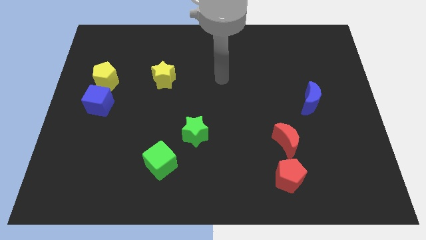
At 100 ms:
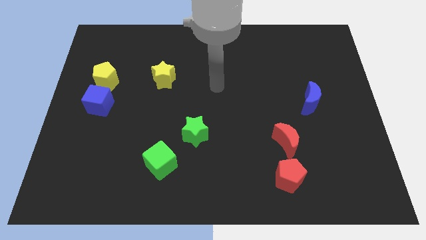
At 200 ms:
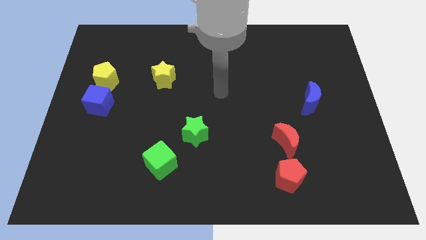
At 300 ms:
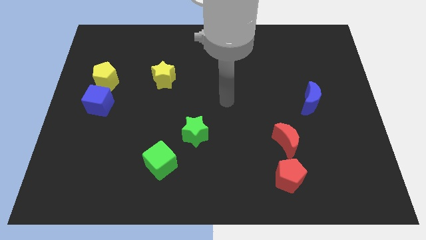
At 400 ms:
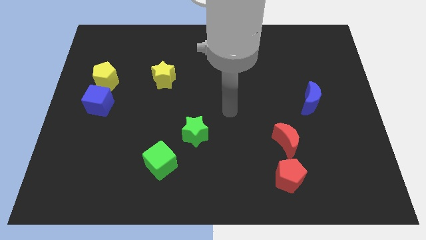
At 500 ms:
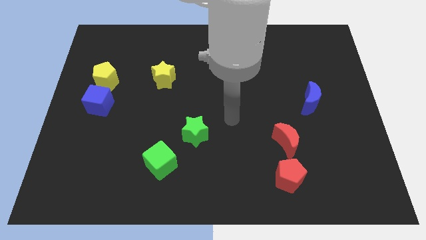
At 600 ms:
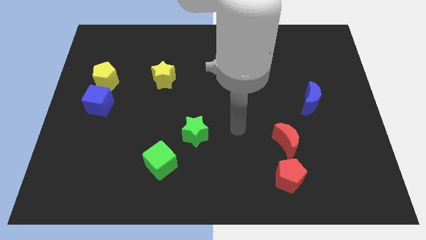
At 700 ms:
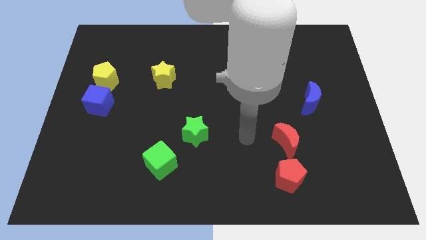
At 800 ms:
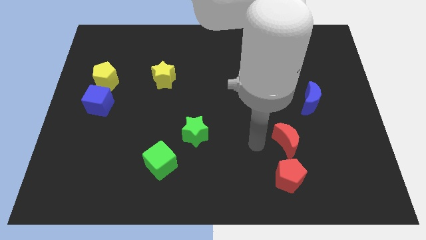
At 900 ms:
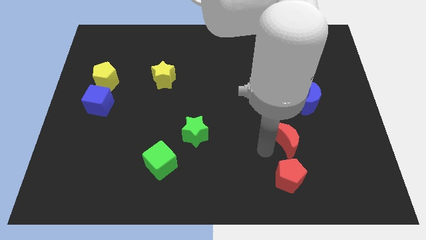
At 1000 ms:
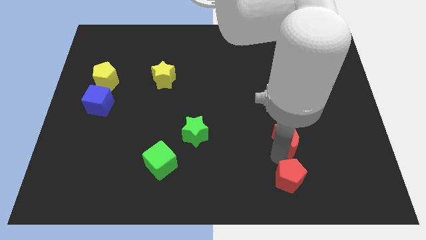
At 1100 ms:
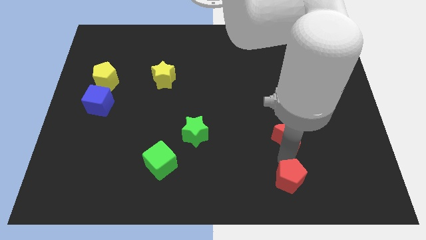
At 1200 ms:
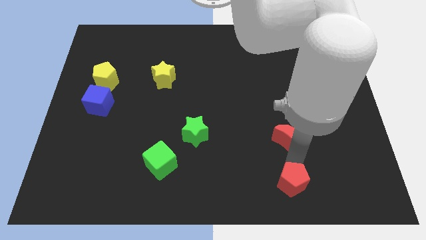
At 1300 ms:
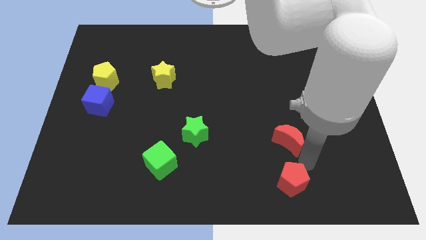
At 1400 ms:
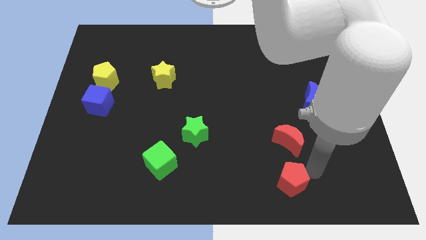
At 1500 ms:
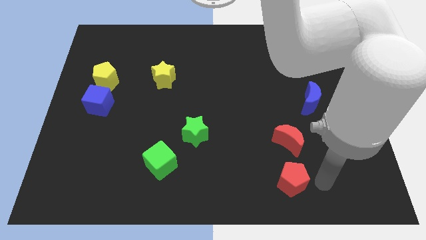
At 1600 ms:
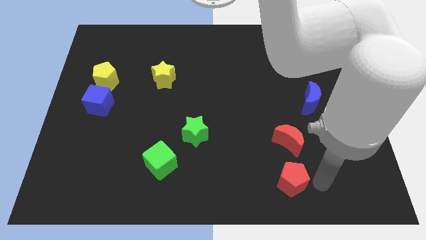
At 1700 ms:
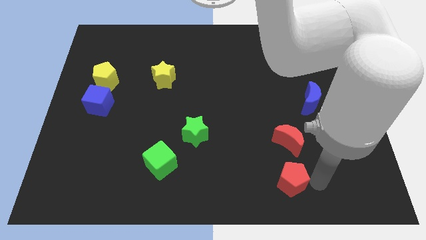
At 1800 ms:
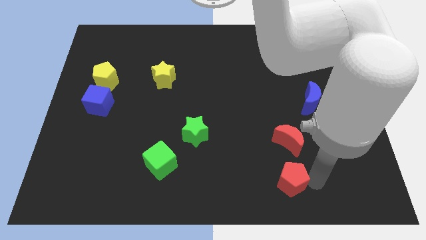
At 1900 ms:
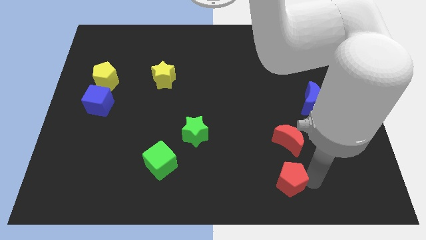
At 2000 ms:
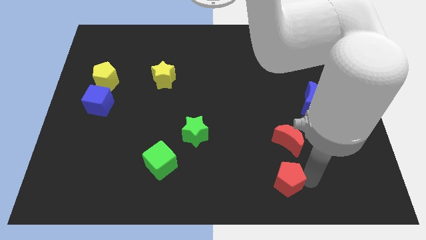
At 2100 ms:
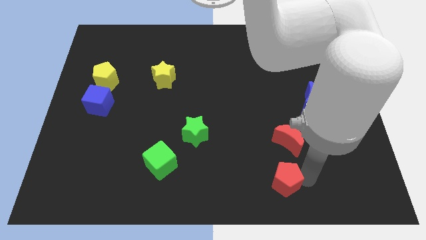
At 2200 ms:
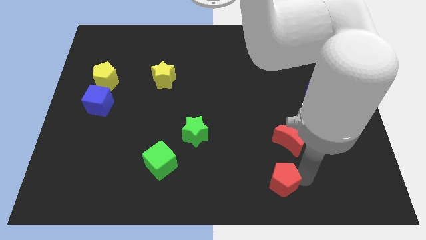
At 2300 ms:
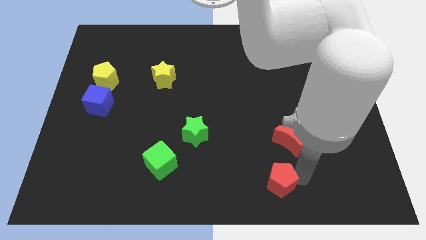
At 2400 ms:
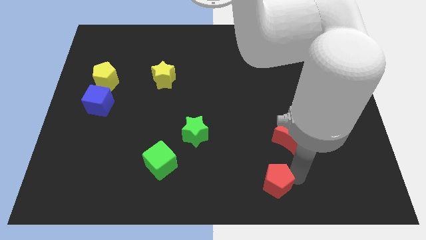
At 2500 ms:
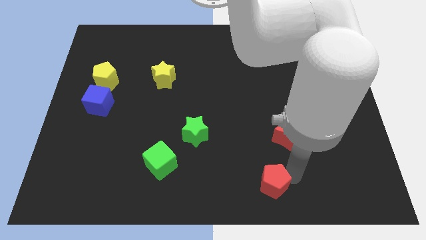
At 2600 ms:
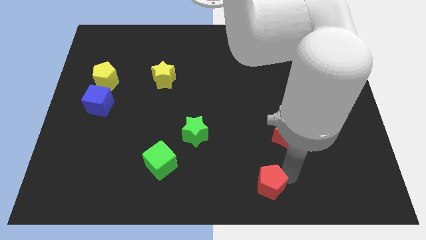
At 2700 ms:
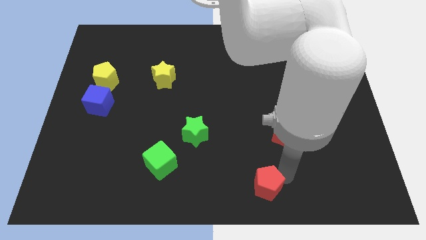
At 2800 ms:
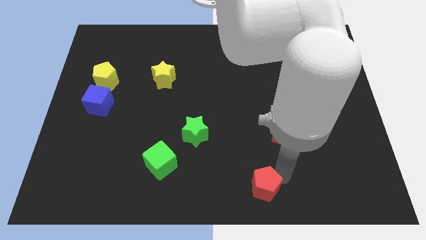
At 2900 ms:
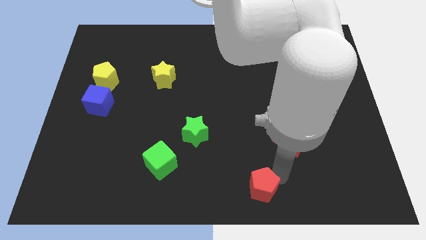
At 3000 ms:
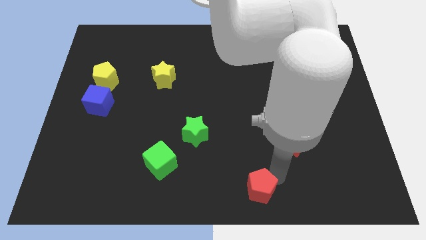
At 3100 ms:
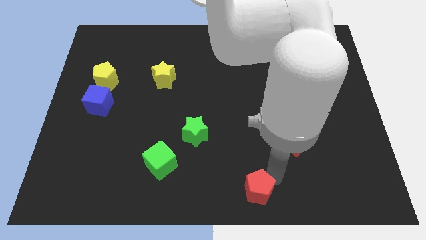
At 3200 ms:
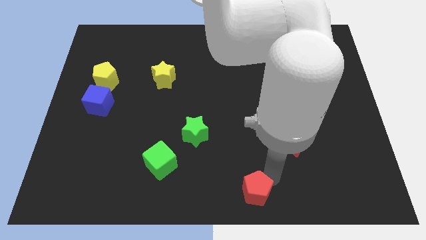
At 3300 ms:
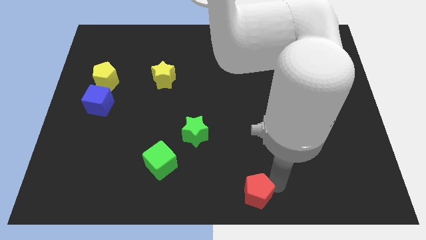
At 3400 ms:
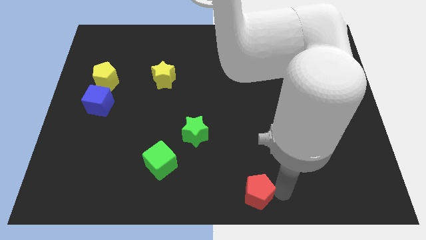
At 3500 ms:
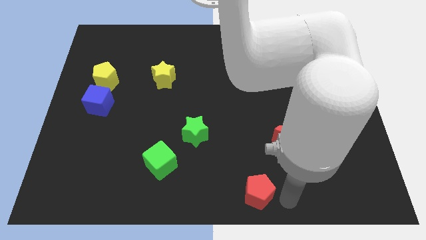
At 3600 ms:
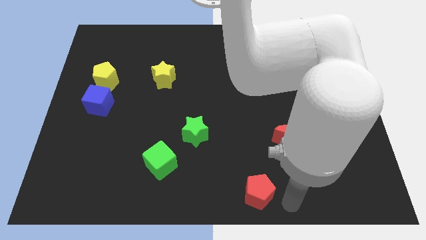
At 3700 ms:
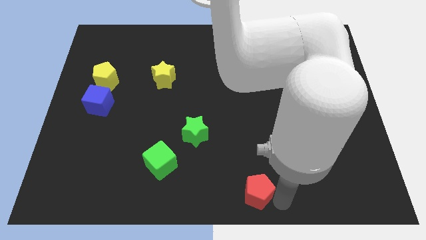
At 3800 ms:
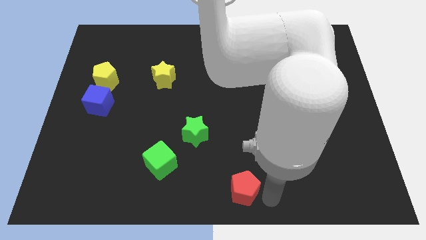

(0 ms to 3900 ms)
slightly push the red pentagon left

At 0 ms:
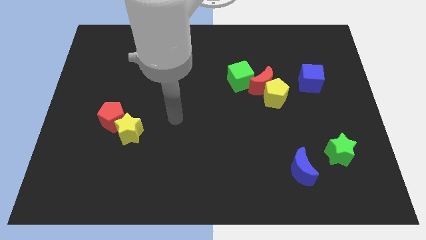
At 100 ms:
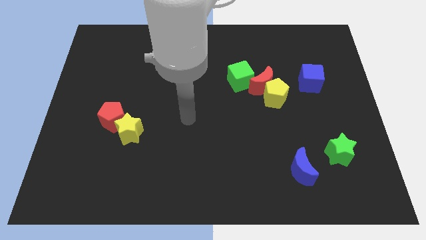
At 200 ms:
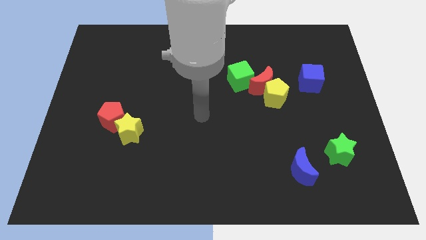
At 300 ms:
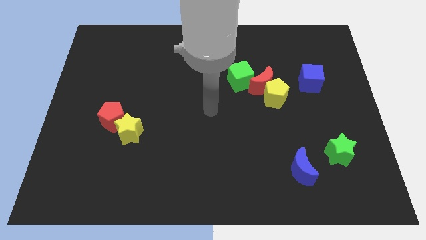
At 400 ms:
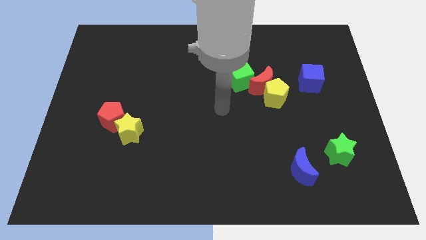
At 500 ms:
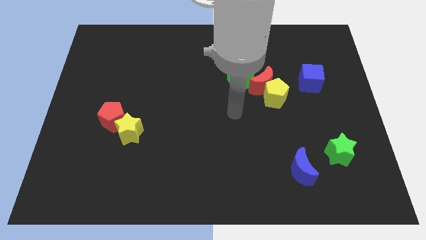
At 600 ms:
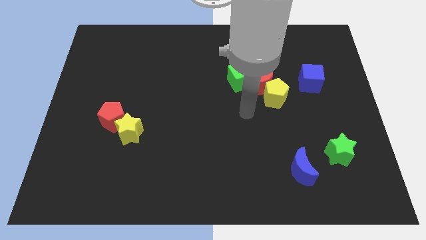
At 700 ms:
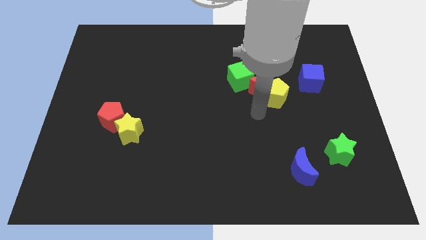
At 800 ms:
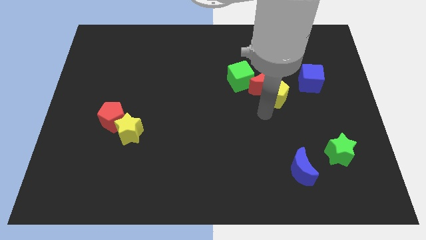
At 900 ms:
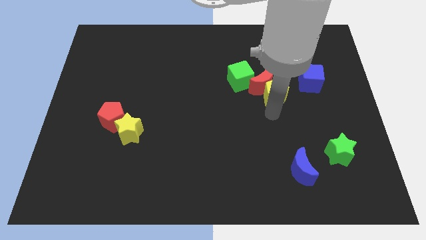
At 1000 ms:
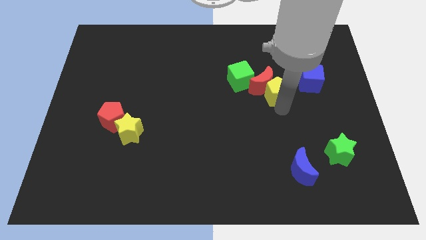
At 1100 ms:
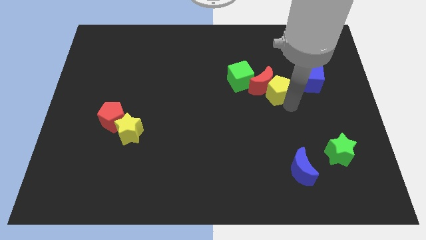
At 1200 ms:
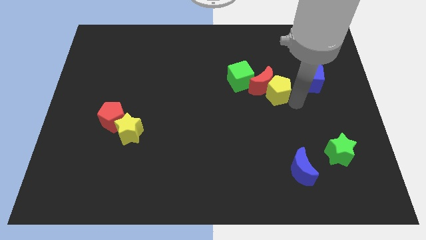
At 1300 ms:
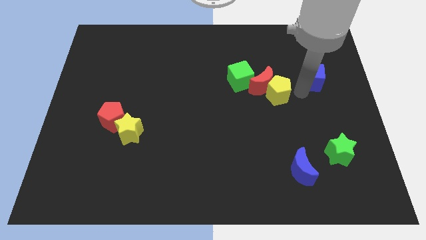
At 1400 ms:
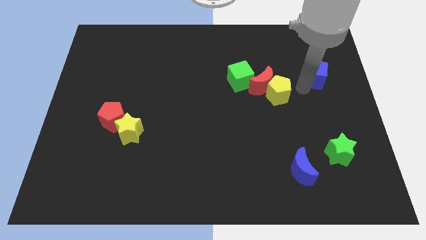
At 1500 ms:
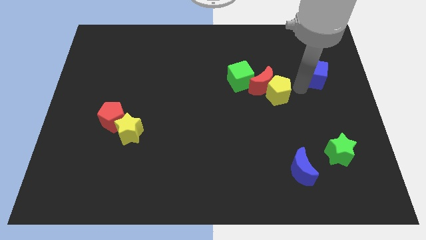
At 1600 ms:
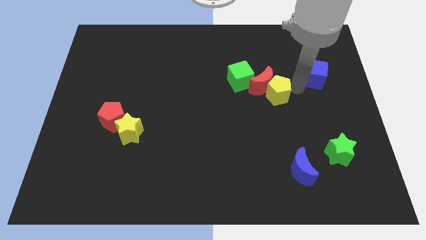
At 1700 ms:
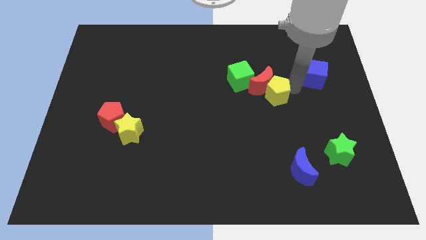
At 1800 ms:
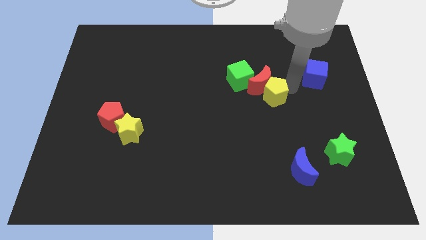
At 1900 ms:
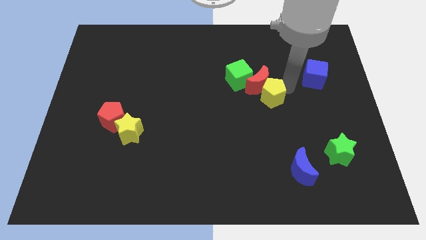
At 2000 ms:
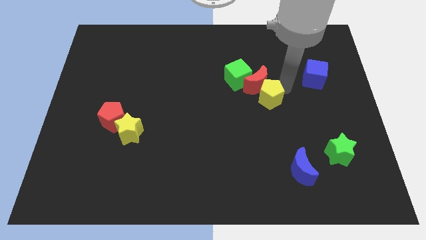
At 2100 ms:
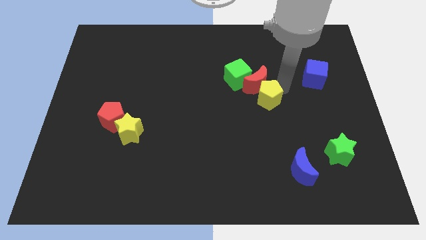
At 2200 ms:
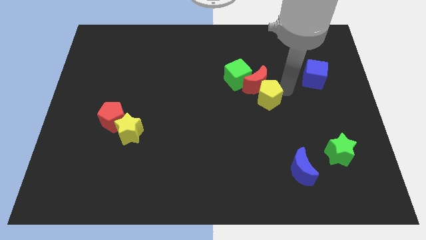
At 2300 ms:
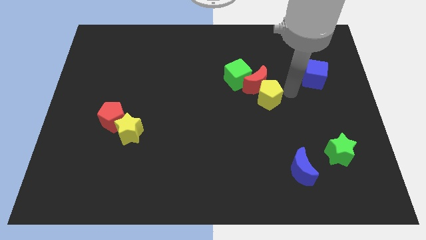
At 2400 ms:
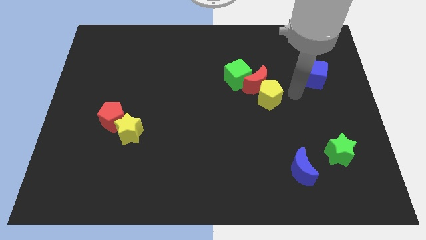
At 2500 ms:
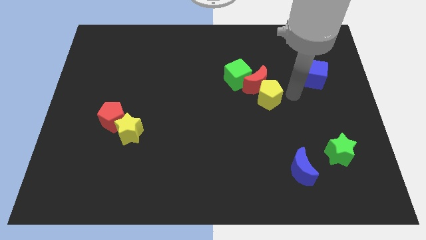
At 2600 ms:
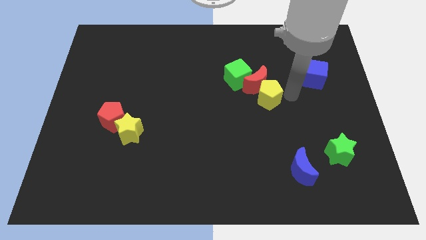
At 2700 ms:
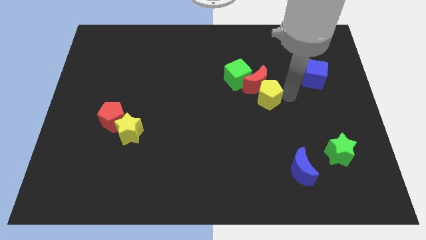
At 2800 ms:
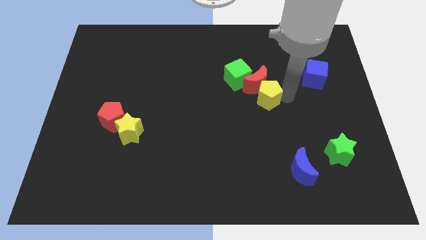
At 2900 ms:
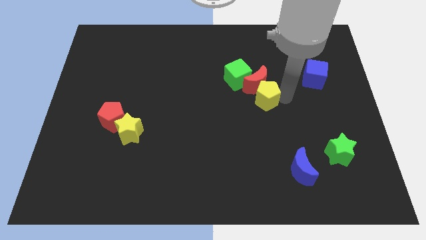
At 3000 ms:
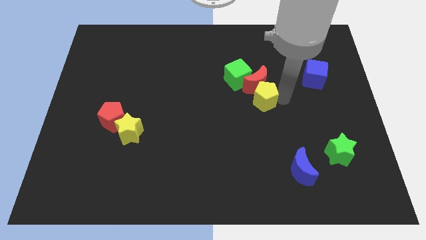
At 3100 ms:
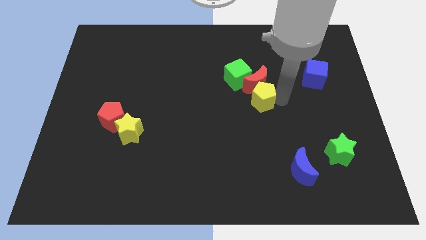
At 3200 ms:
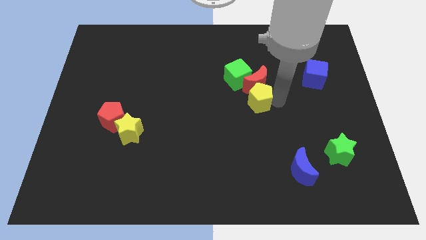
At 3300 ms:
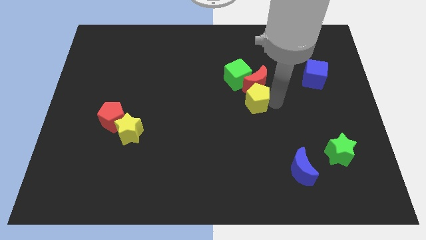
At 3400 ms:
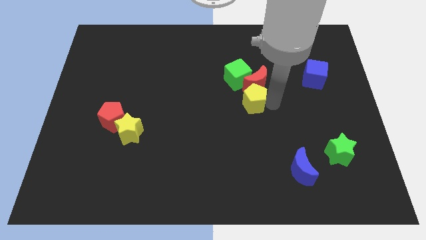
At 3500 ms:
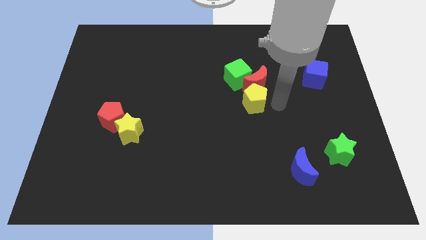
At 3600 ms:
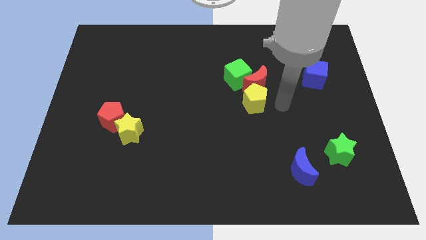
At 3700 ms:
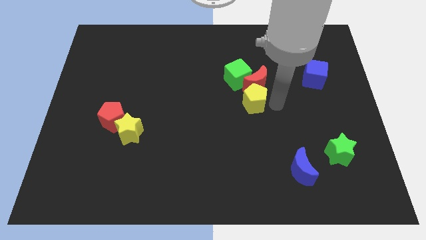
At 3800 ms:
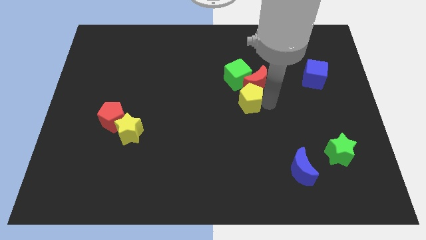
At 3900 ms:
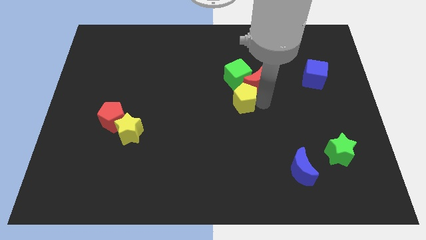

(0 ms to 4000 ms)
slightly move the yellow pentagon left

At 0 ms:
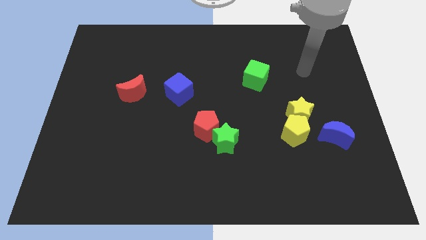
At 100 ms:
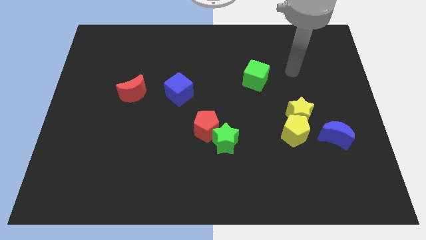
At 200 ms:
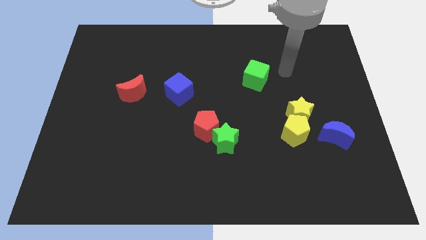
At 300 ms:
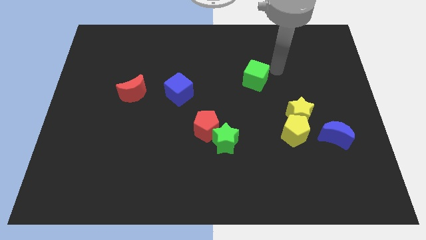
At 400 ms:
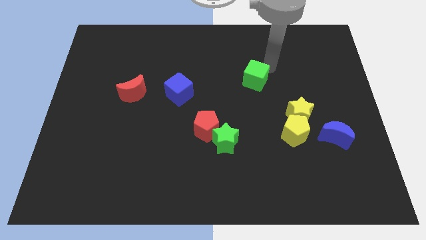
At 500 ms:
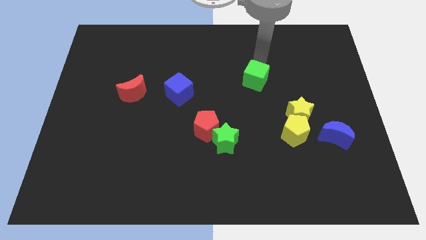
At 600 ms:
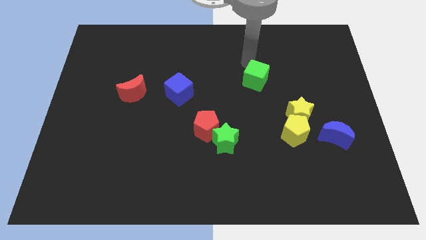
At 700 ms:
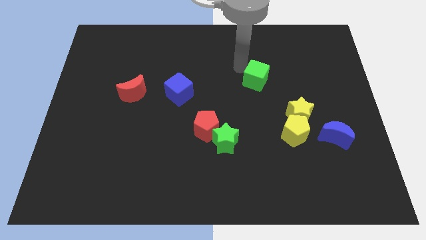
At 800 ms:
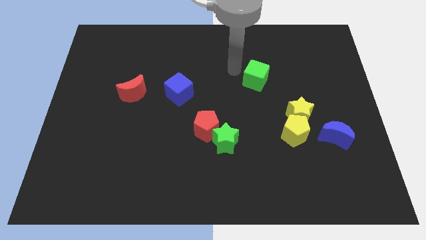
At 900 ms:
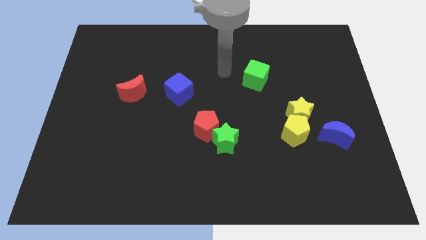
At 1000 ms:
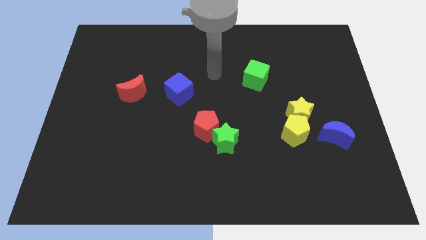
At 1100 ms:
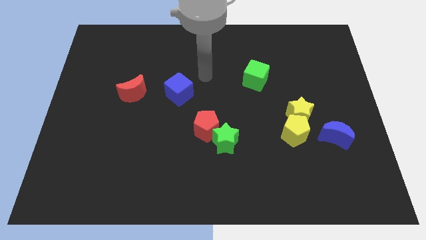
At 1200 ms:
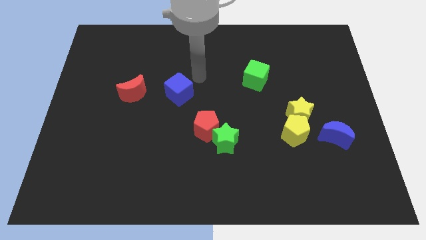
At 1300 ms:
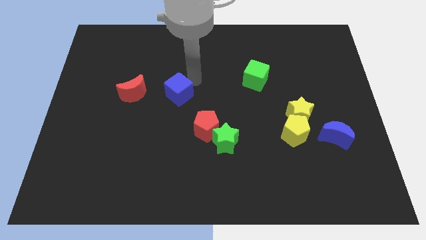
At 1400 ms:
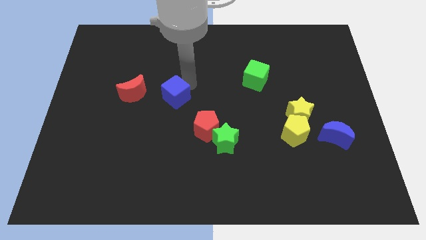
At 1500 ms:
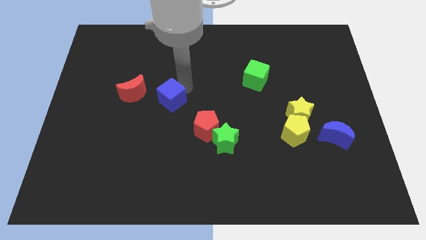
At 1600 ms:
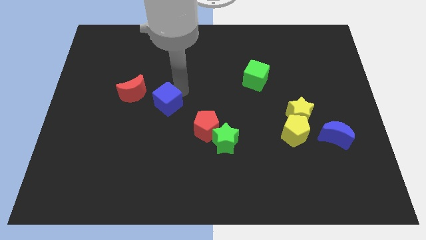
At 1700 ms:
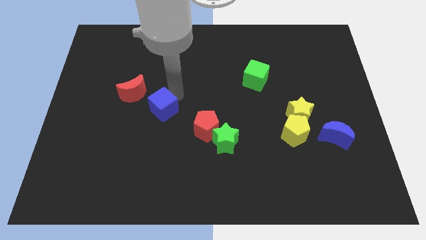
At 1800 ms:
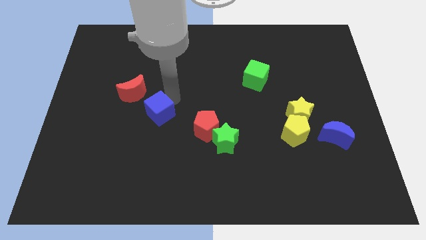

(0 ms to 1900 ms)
push the blue cube a little downwards and left diagonally
